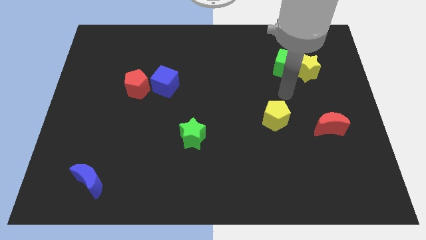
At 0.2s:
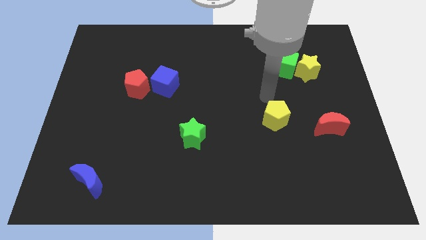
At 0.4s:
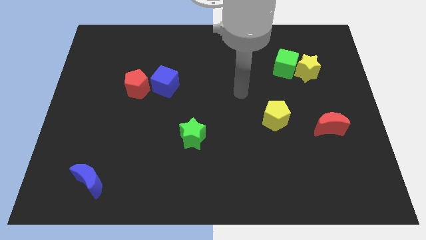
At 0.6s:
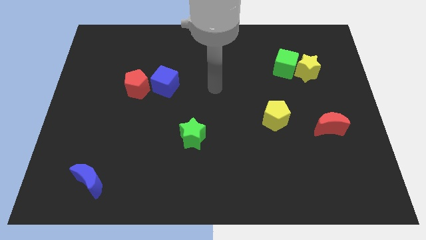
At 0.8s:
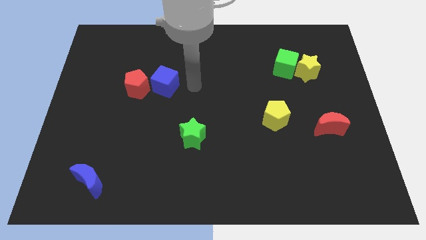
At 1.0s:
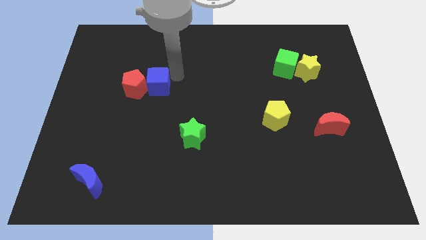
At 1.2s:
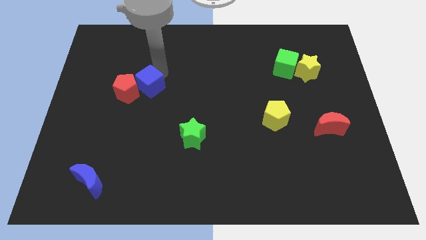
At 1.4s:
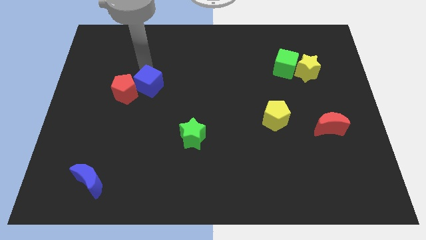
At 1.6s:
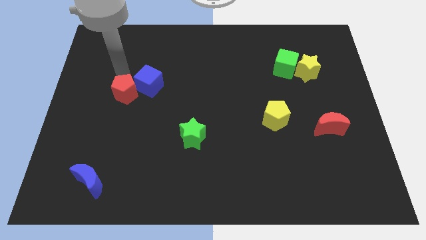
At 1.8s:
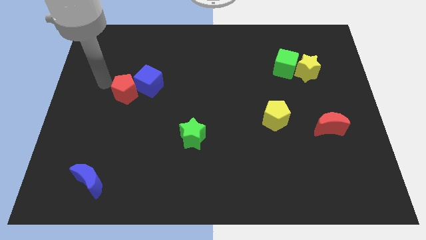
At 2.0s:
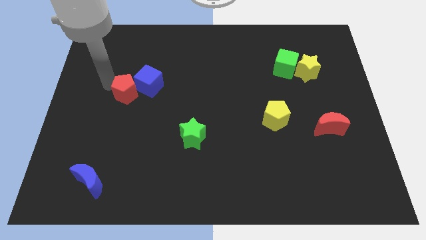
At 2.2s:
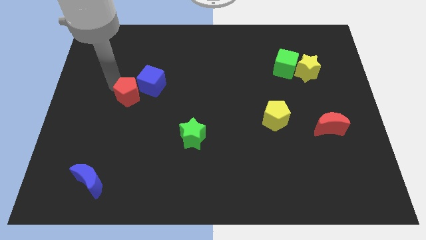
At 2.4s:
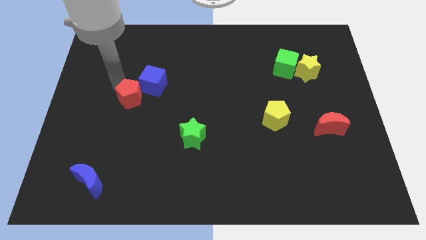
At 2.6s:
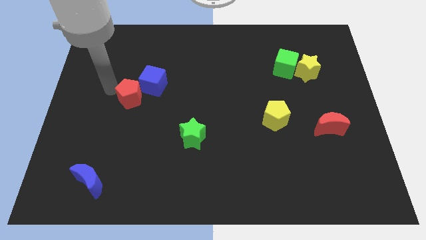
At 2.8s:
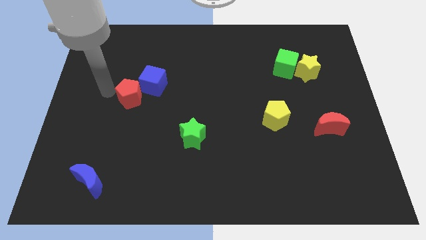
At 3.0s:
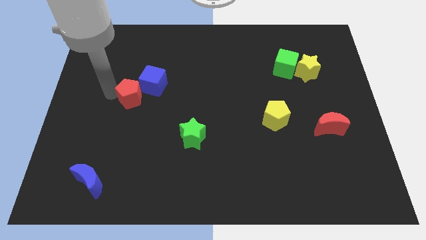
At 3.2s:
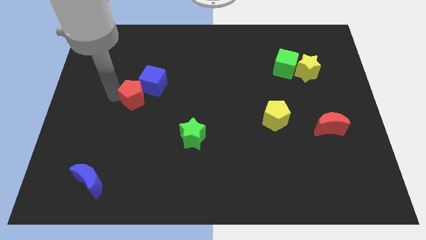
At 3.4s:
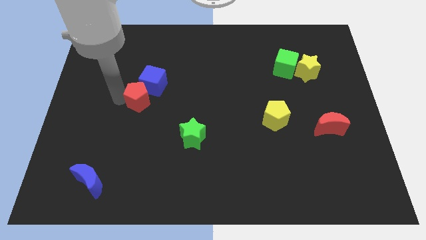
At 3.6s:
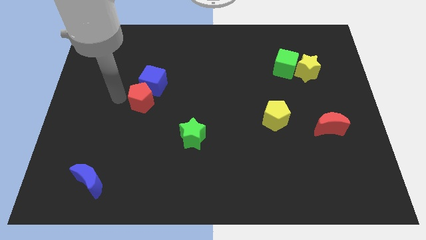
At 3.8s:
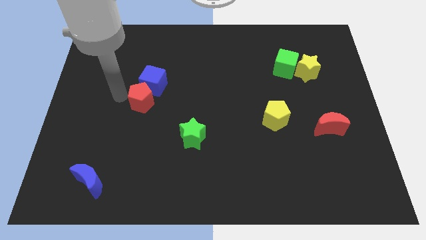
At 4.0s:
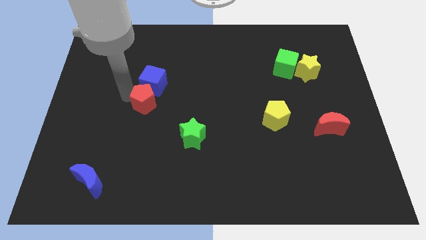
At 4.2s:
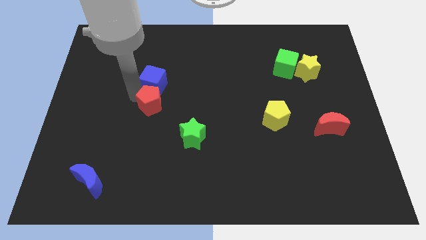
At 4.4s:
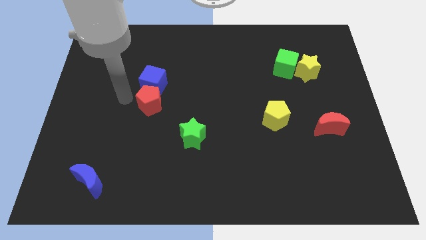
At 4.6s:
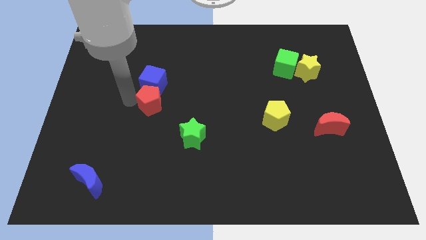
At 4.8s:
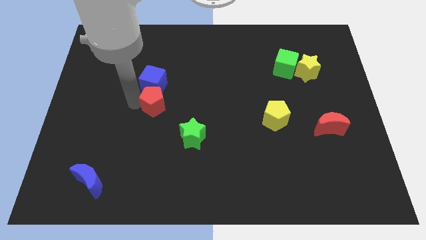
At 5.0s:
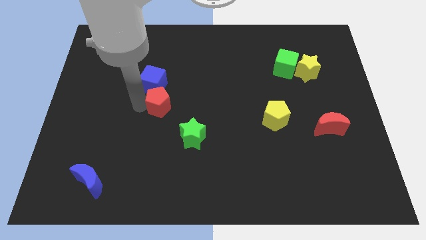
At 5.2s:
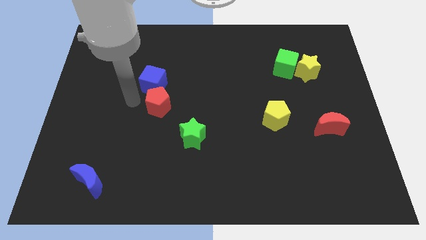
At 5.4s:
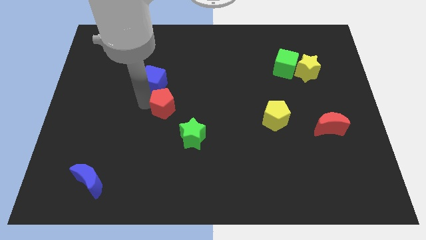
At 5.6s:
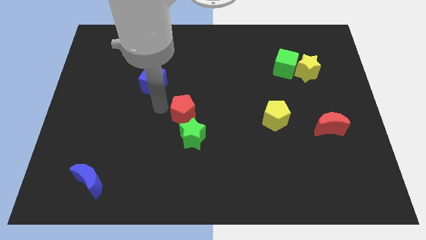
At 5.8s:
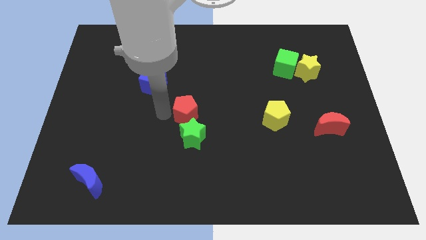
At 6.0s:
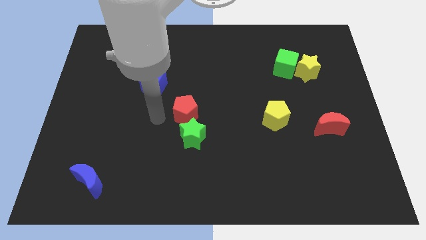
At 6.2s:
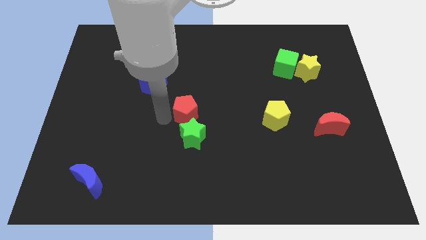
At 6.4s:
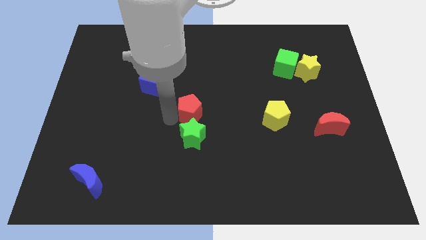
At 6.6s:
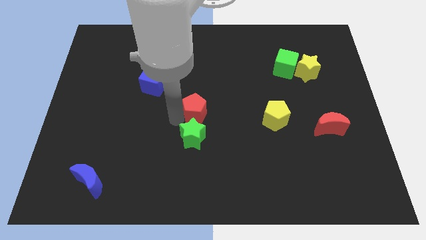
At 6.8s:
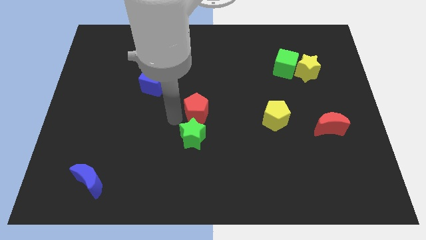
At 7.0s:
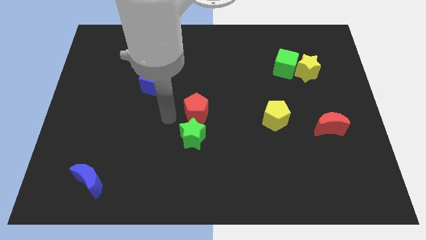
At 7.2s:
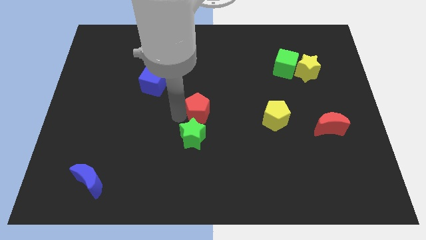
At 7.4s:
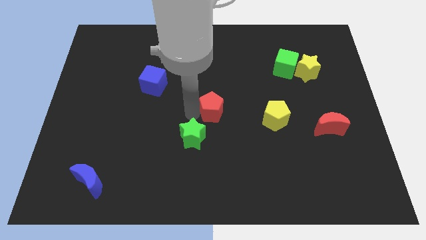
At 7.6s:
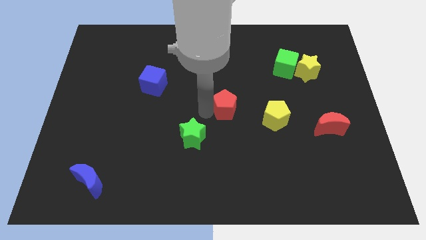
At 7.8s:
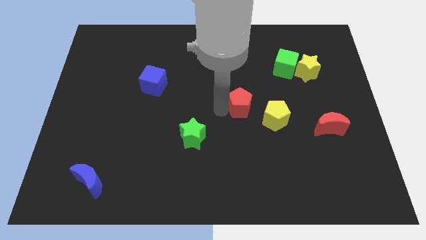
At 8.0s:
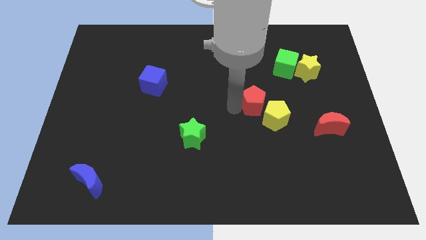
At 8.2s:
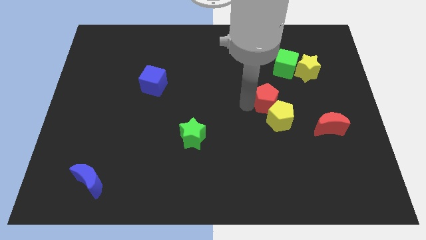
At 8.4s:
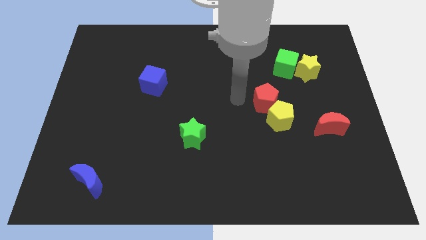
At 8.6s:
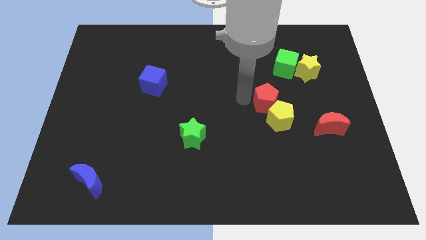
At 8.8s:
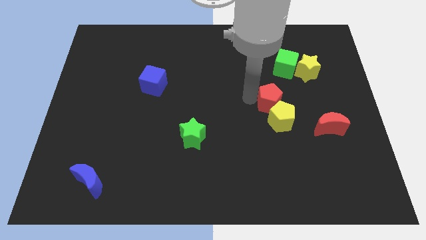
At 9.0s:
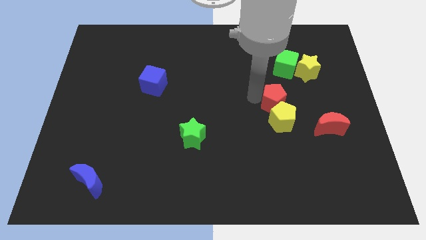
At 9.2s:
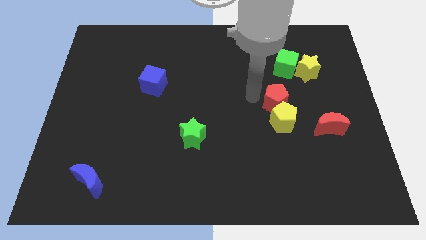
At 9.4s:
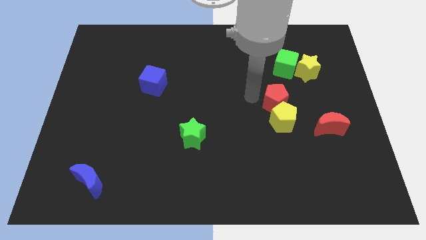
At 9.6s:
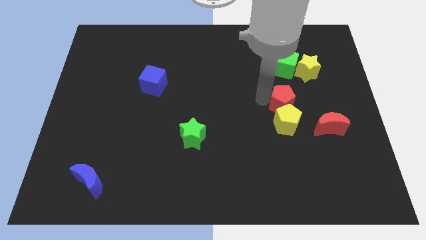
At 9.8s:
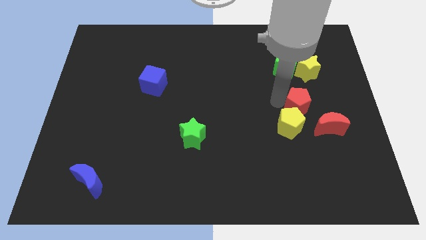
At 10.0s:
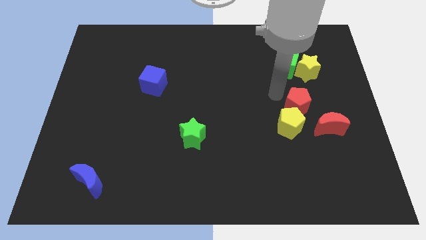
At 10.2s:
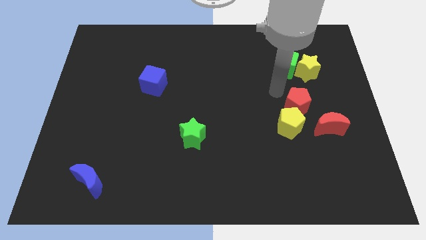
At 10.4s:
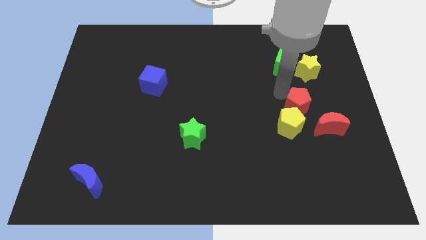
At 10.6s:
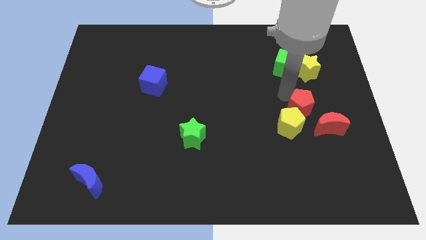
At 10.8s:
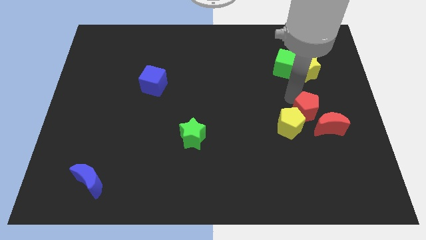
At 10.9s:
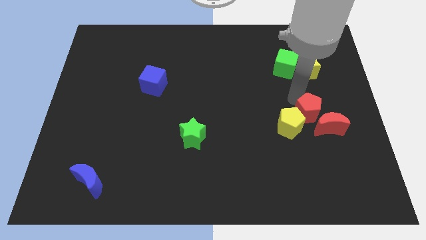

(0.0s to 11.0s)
put the red pentagon towards the red moon

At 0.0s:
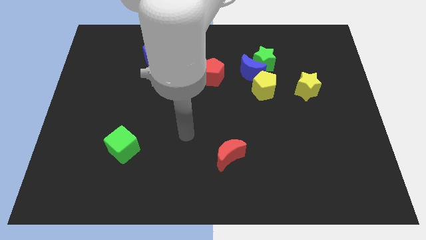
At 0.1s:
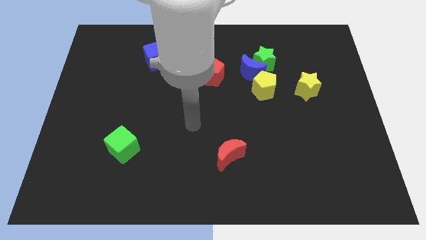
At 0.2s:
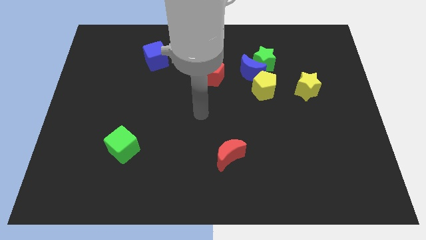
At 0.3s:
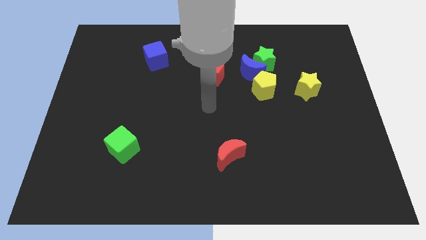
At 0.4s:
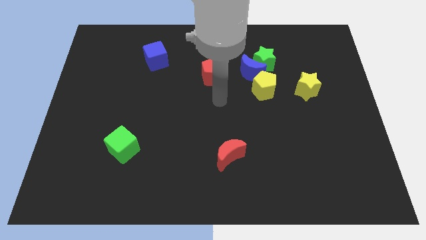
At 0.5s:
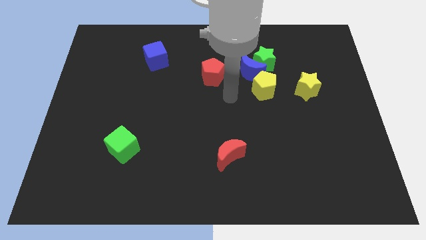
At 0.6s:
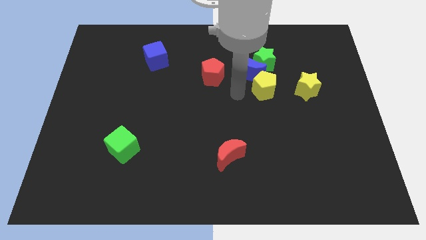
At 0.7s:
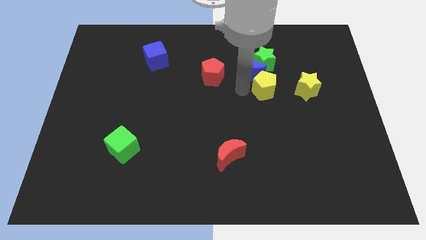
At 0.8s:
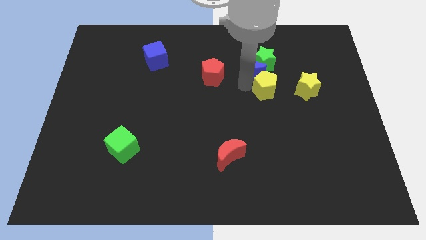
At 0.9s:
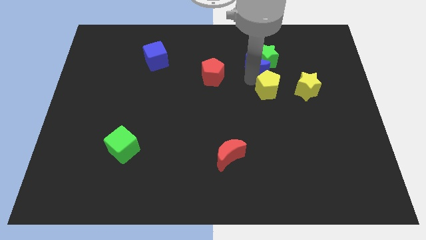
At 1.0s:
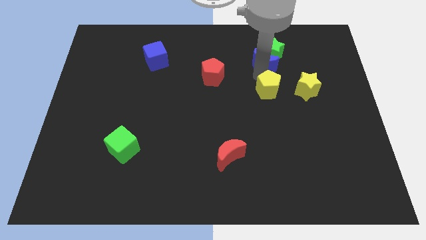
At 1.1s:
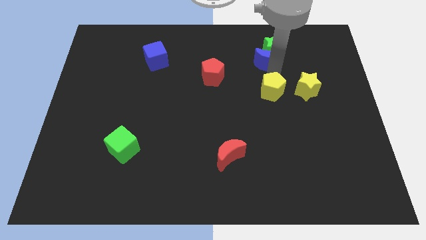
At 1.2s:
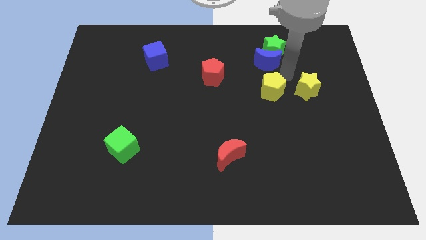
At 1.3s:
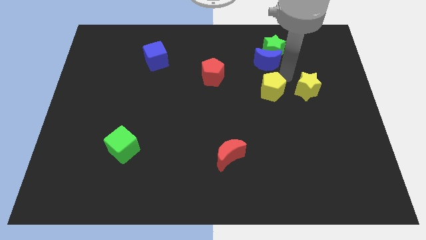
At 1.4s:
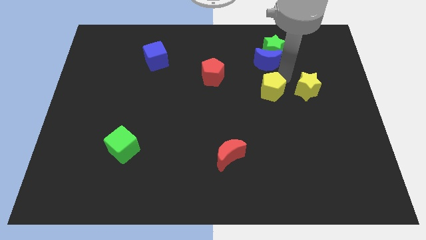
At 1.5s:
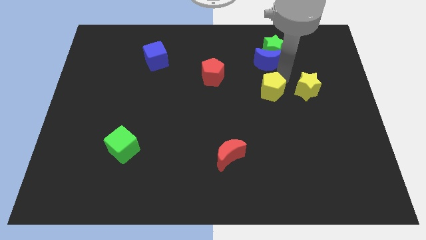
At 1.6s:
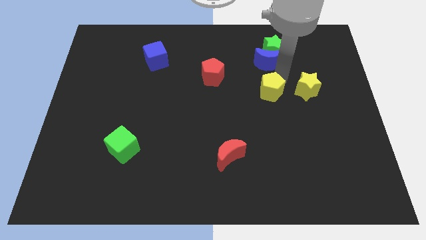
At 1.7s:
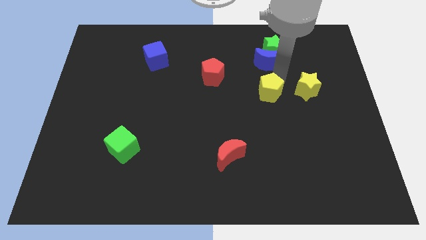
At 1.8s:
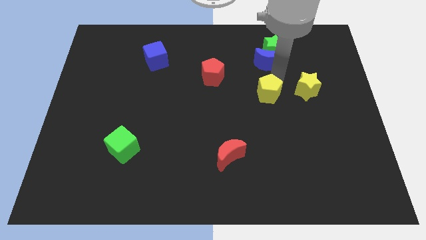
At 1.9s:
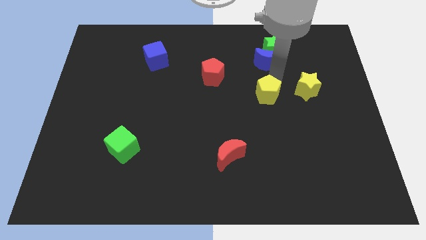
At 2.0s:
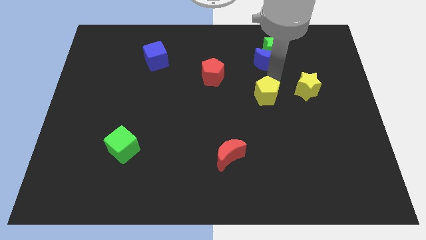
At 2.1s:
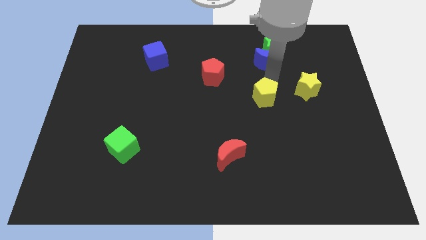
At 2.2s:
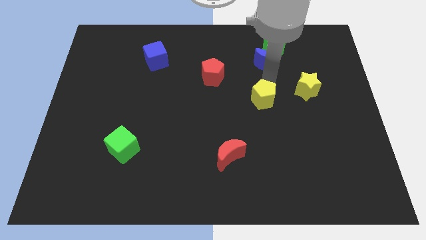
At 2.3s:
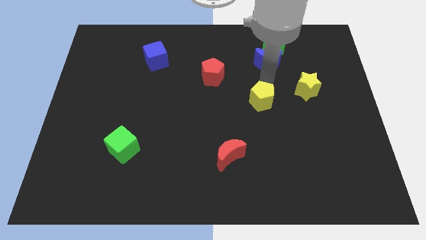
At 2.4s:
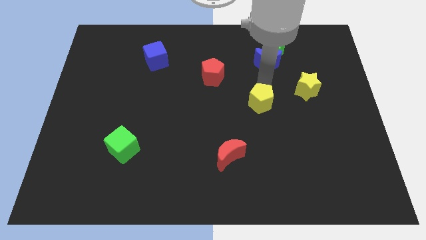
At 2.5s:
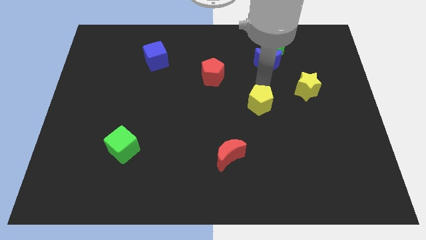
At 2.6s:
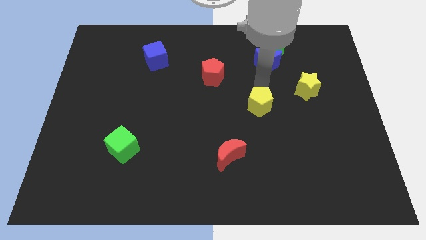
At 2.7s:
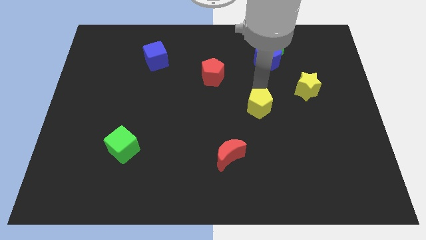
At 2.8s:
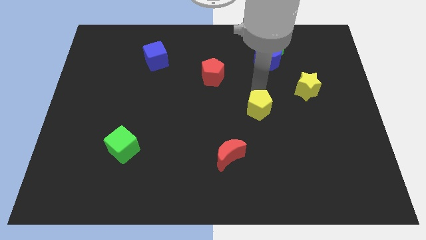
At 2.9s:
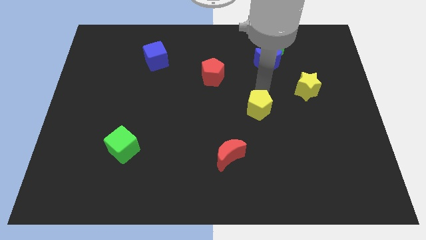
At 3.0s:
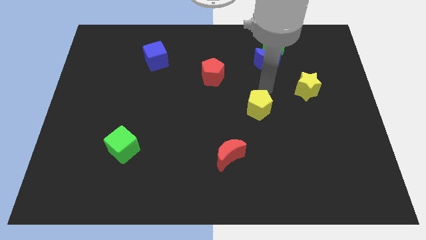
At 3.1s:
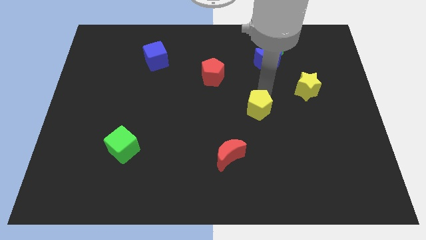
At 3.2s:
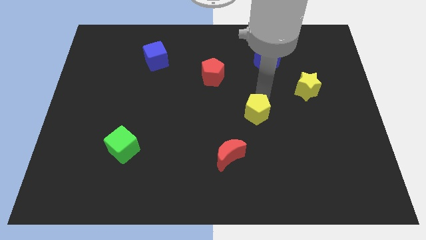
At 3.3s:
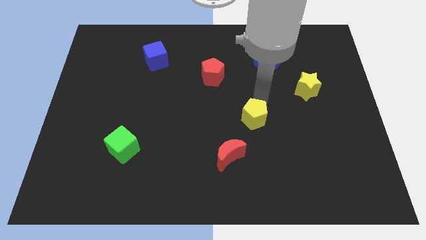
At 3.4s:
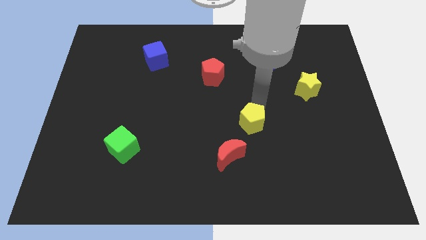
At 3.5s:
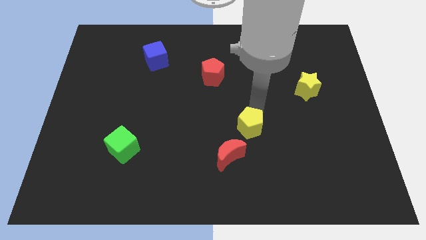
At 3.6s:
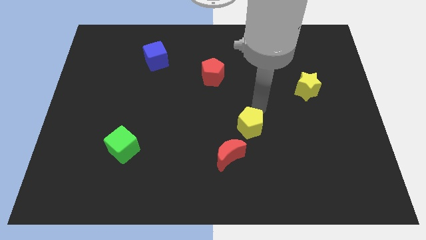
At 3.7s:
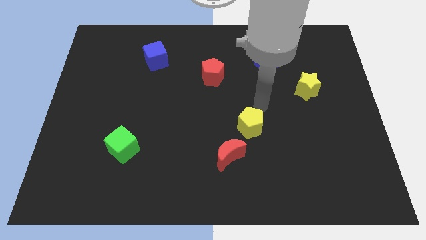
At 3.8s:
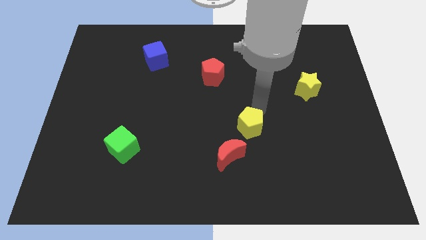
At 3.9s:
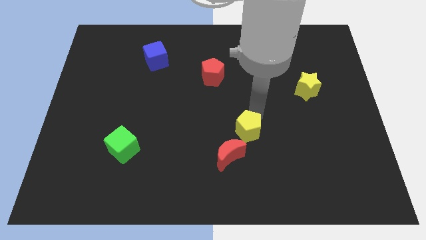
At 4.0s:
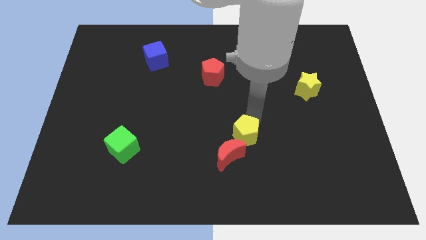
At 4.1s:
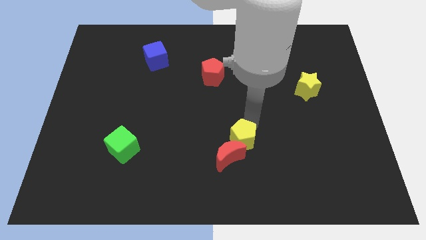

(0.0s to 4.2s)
slide the yellow pentagon to the red moon
